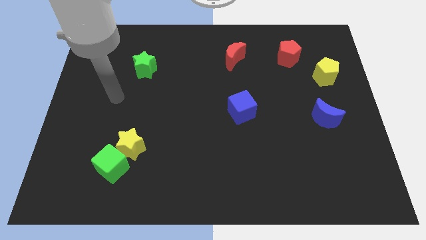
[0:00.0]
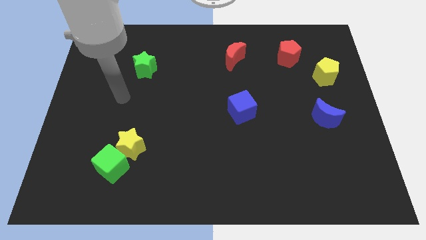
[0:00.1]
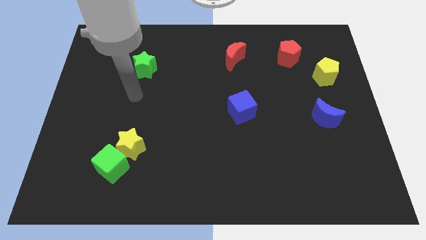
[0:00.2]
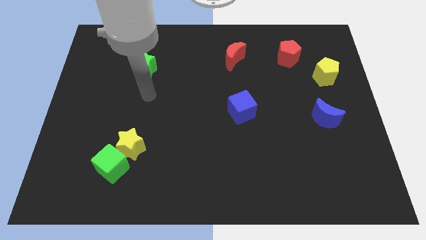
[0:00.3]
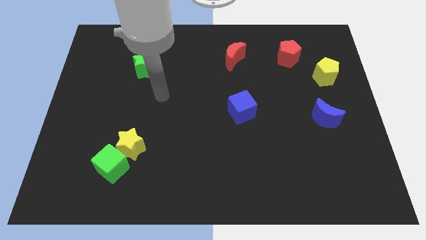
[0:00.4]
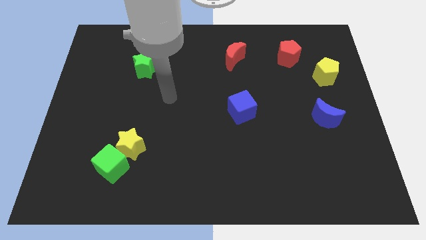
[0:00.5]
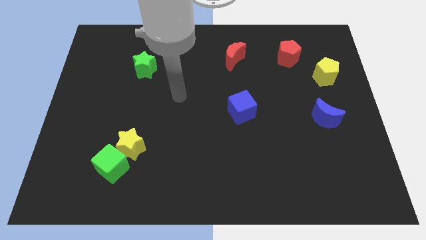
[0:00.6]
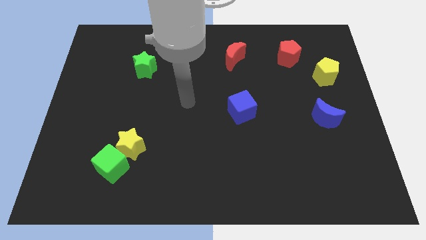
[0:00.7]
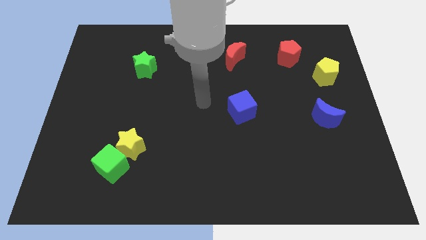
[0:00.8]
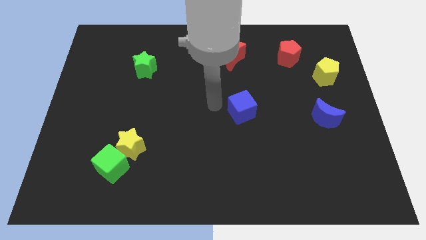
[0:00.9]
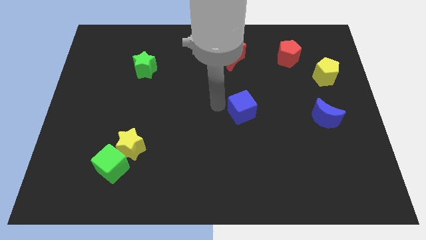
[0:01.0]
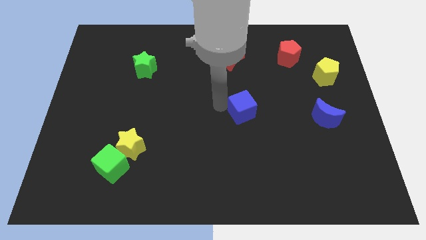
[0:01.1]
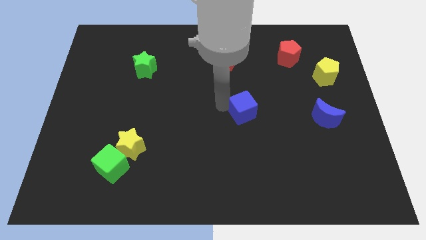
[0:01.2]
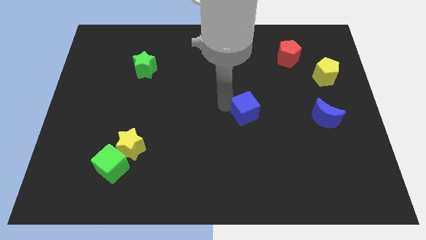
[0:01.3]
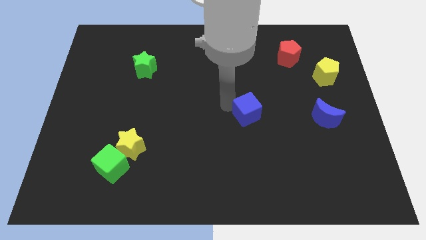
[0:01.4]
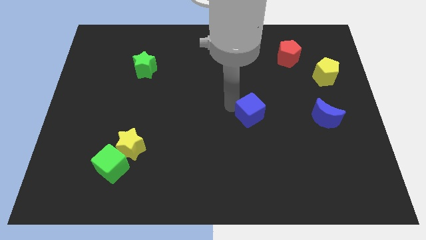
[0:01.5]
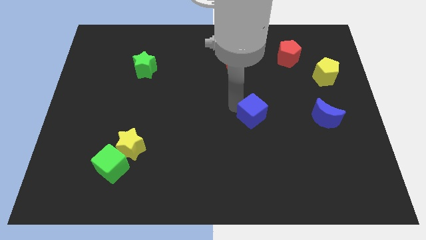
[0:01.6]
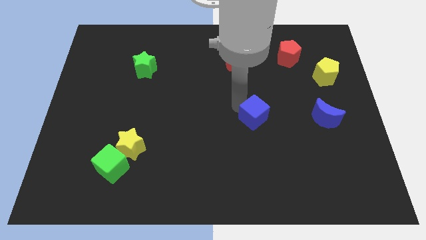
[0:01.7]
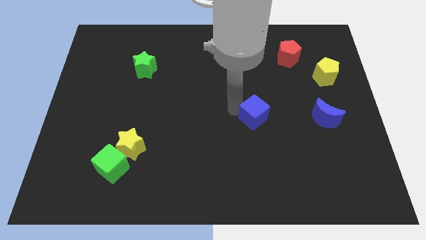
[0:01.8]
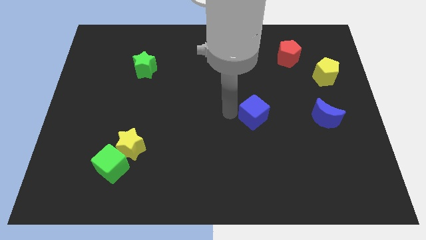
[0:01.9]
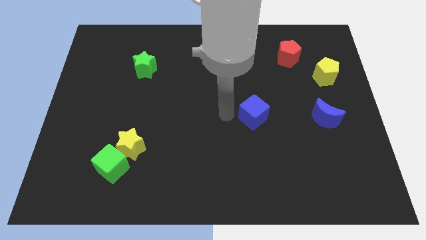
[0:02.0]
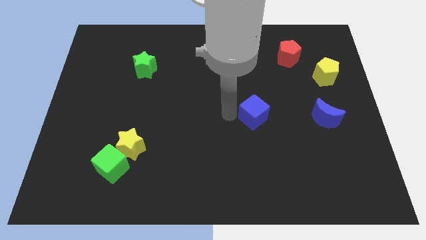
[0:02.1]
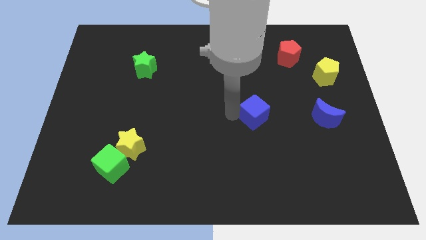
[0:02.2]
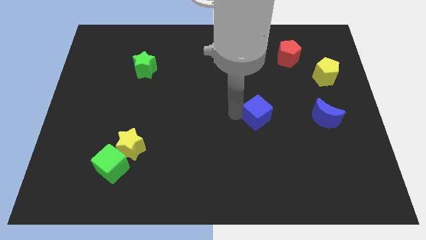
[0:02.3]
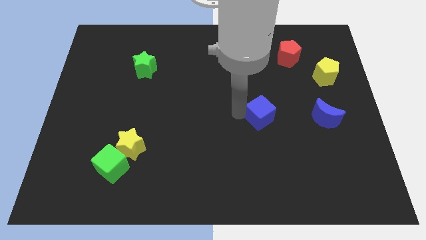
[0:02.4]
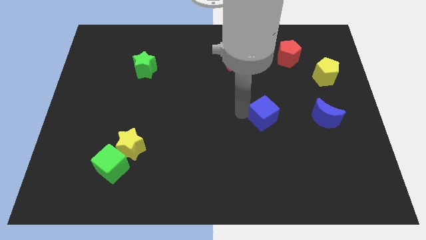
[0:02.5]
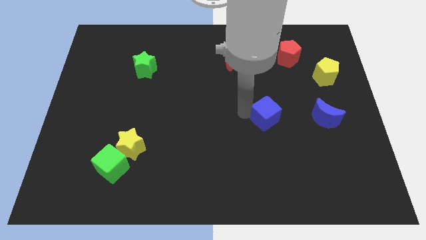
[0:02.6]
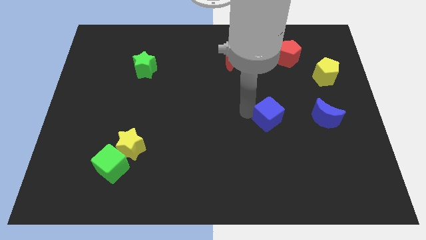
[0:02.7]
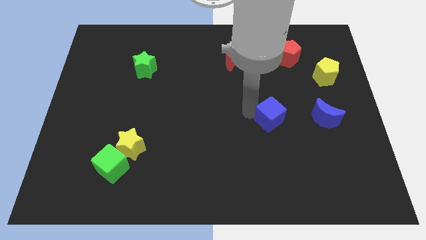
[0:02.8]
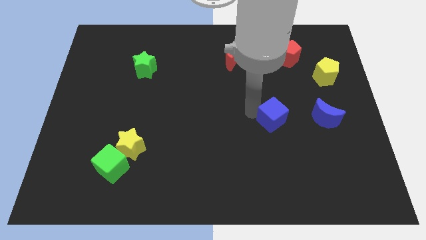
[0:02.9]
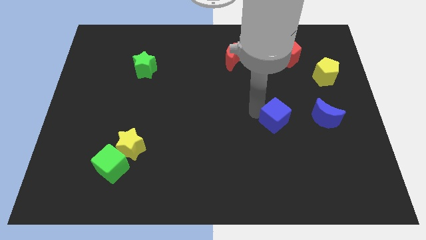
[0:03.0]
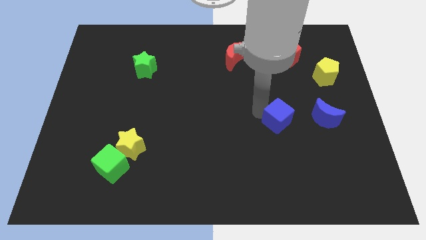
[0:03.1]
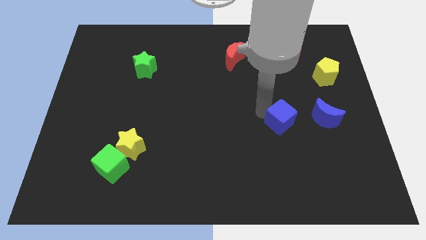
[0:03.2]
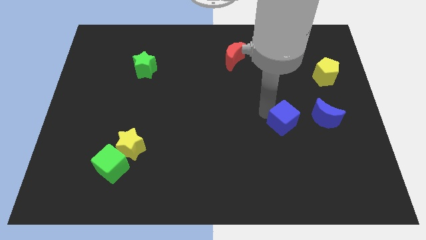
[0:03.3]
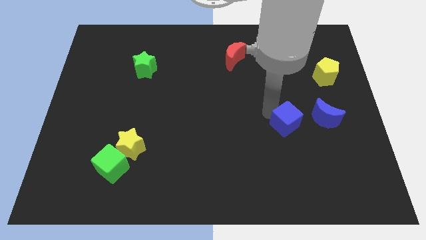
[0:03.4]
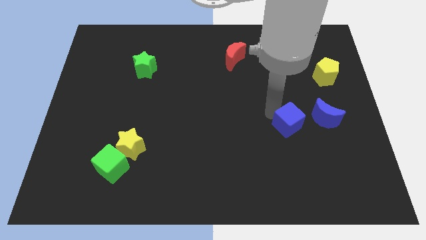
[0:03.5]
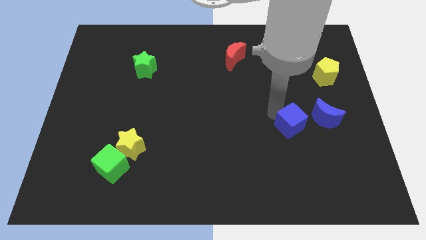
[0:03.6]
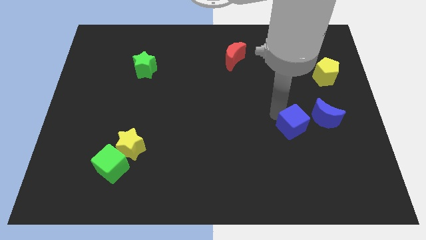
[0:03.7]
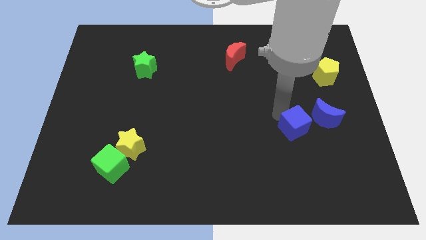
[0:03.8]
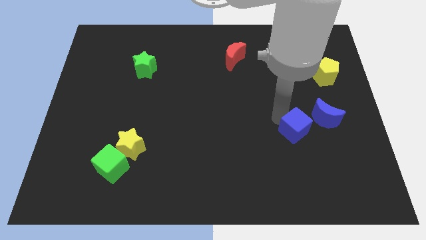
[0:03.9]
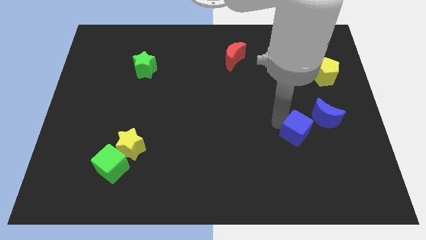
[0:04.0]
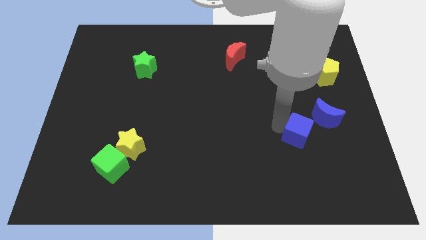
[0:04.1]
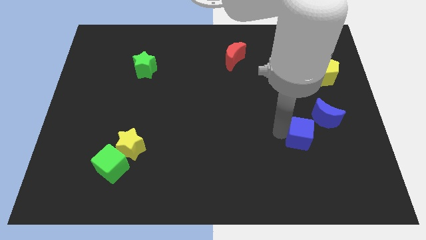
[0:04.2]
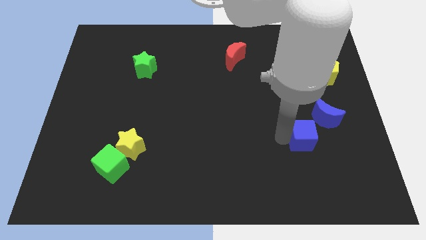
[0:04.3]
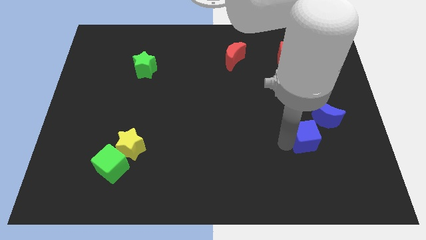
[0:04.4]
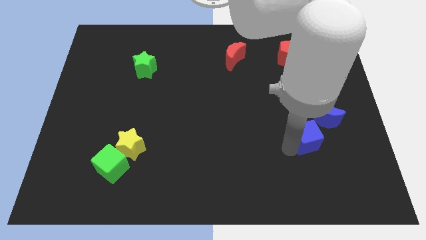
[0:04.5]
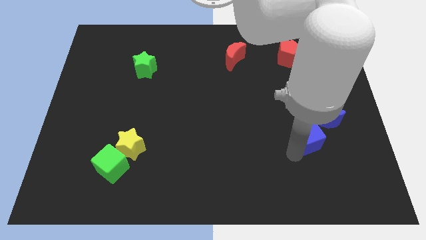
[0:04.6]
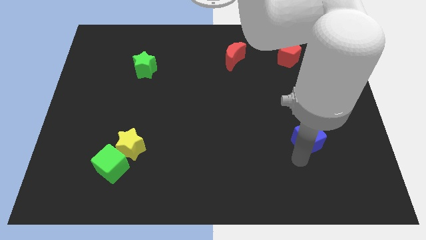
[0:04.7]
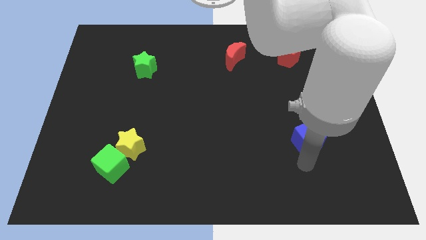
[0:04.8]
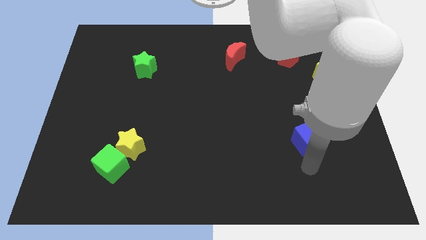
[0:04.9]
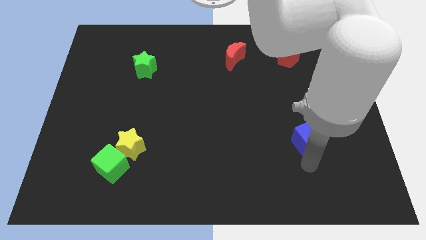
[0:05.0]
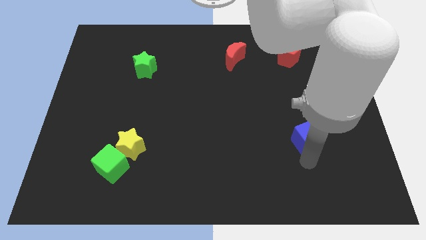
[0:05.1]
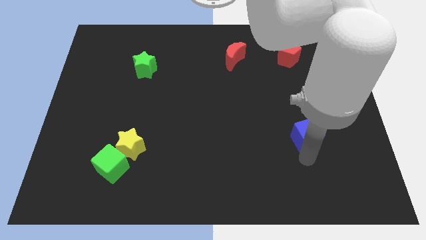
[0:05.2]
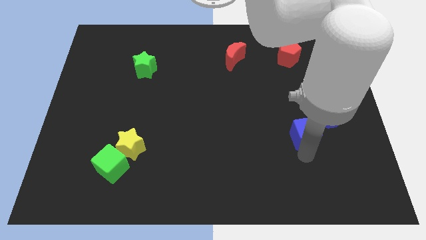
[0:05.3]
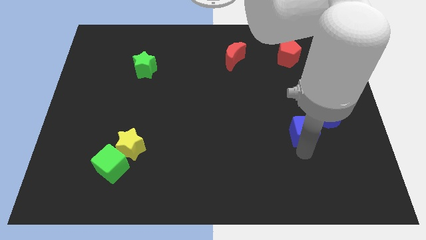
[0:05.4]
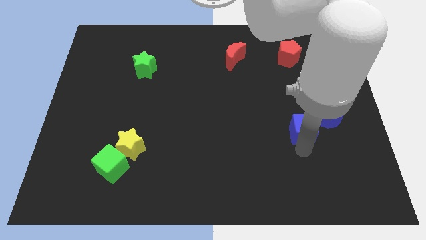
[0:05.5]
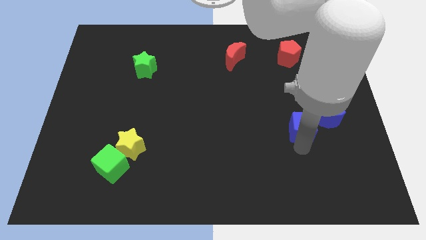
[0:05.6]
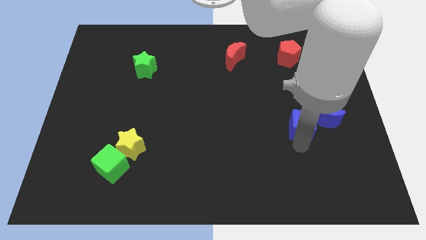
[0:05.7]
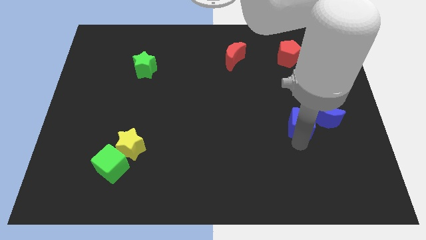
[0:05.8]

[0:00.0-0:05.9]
push the blue cube next to the blue moon

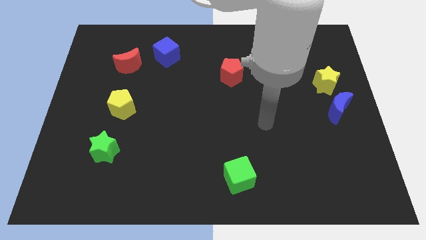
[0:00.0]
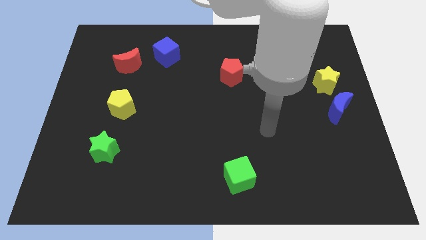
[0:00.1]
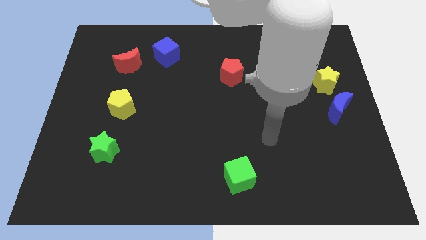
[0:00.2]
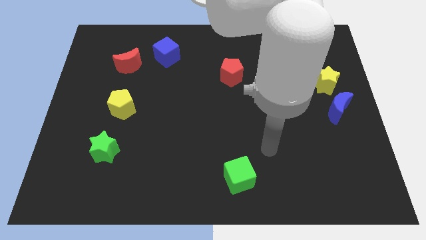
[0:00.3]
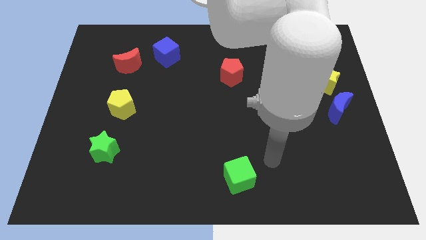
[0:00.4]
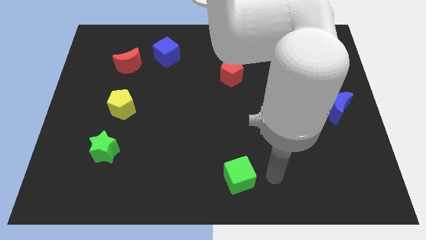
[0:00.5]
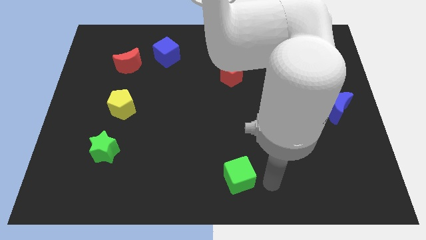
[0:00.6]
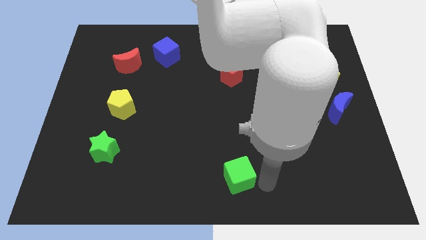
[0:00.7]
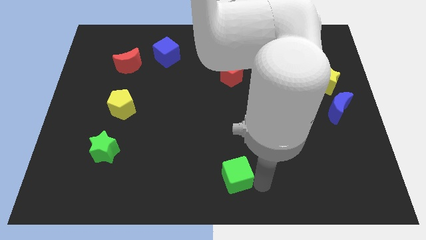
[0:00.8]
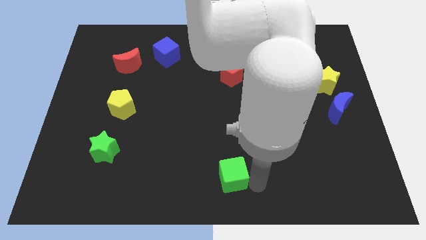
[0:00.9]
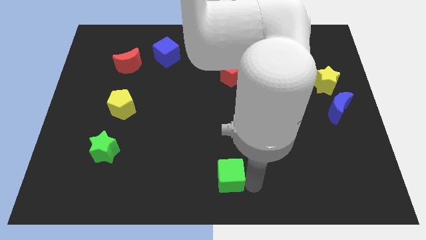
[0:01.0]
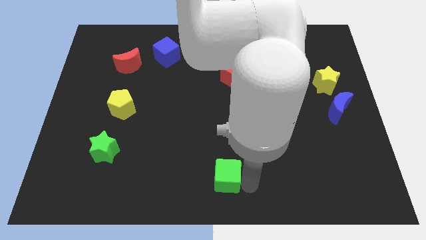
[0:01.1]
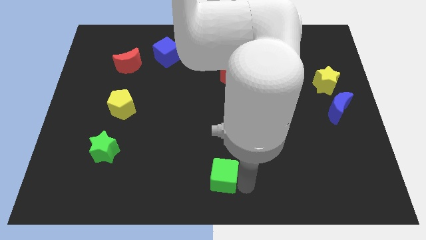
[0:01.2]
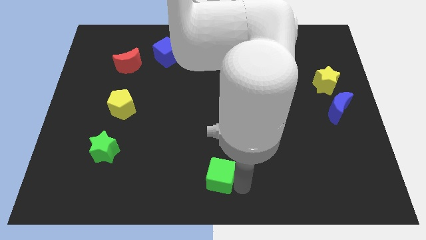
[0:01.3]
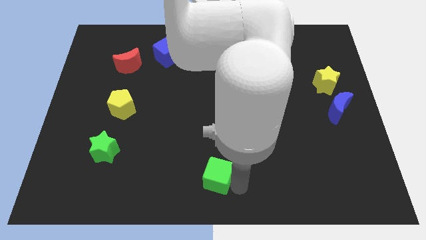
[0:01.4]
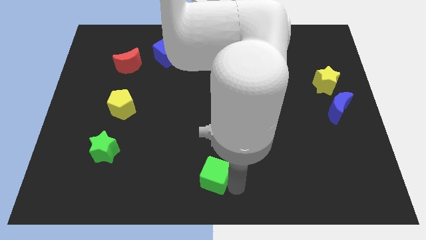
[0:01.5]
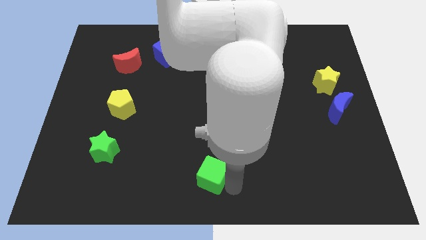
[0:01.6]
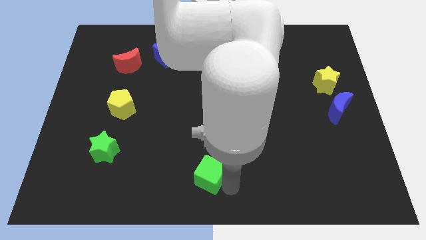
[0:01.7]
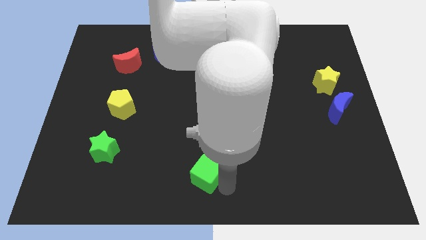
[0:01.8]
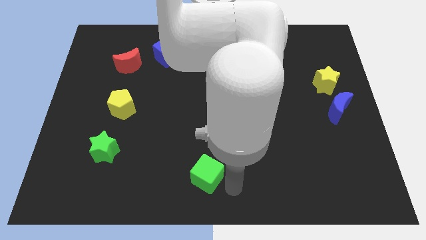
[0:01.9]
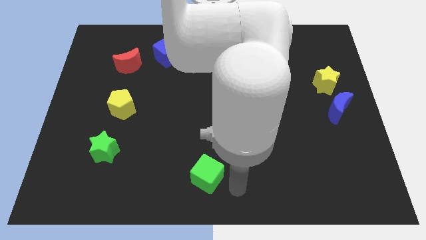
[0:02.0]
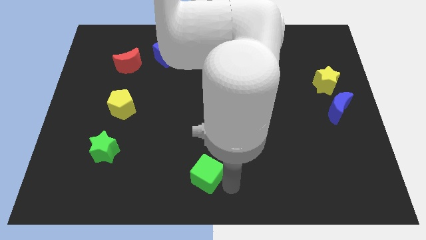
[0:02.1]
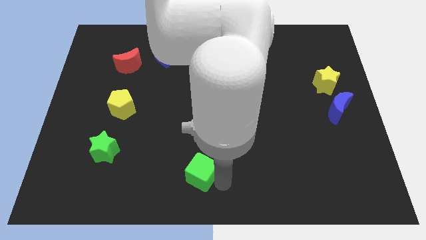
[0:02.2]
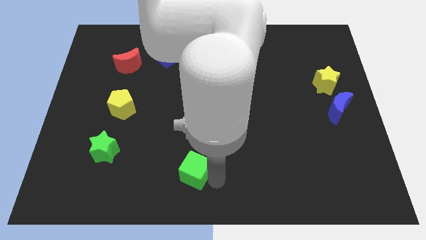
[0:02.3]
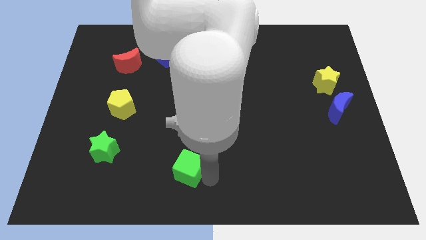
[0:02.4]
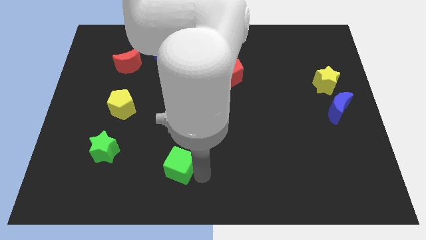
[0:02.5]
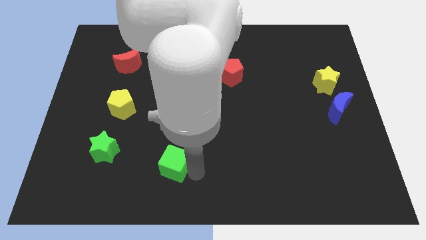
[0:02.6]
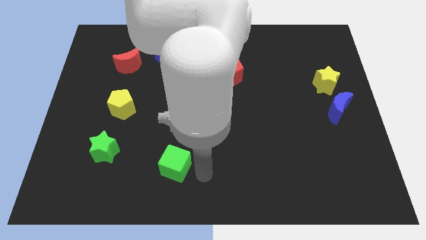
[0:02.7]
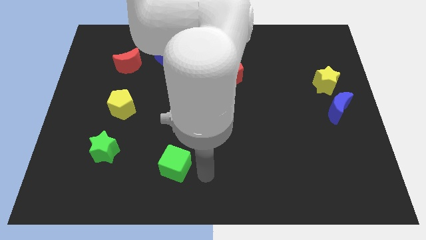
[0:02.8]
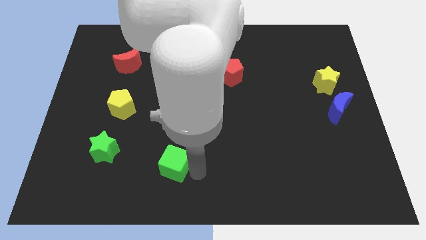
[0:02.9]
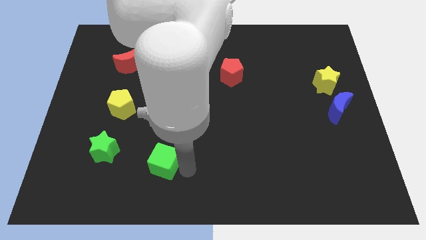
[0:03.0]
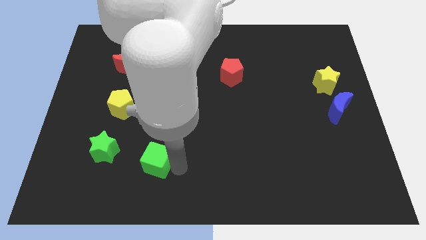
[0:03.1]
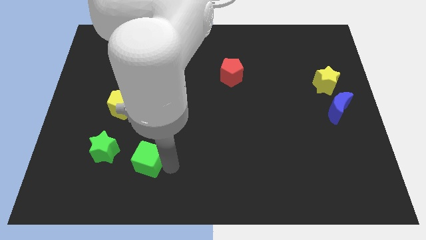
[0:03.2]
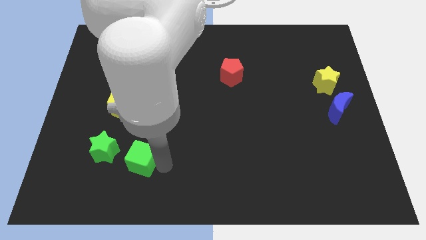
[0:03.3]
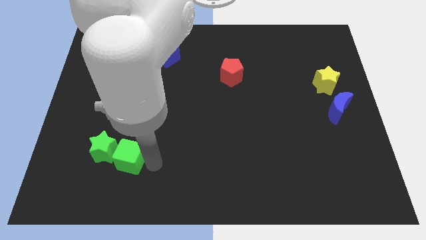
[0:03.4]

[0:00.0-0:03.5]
push the green cube next to the green star
